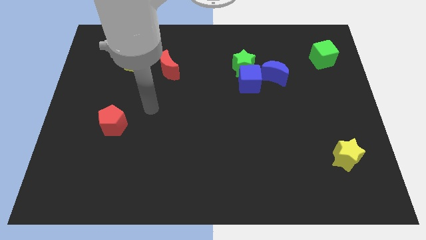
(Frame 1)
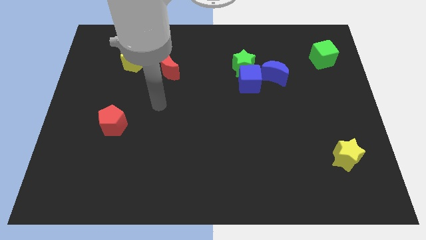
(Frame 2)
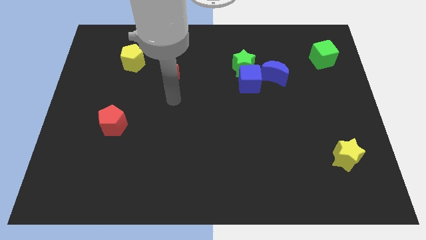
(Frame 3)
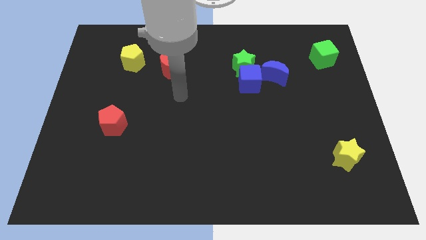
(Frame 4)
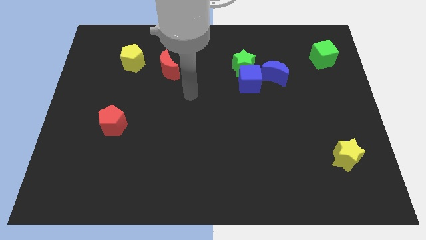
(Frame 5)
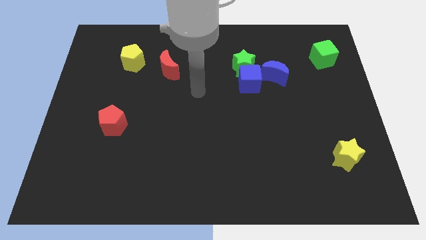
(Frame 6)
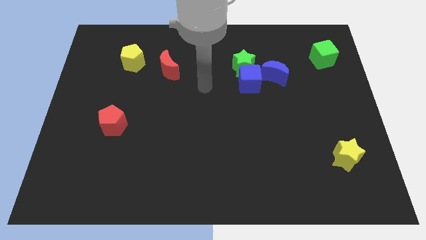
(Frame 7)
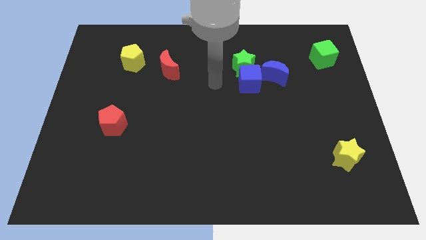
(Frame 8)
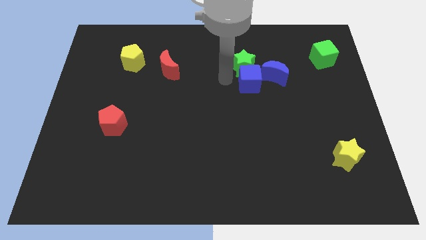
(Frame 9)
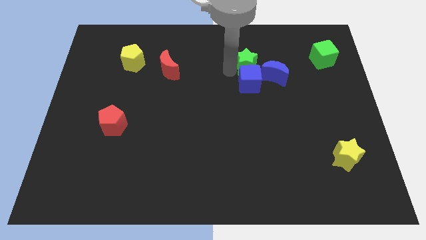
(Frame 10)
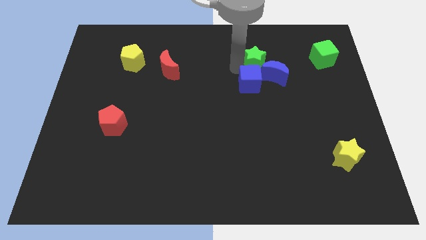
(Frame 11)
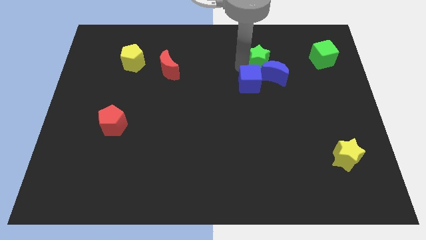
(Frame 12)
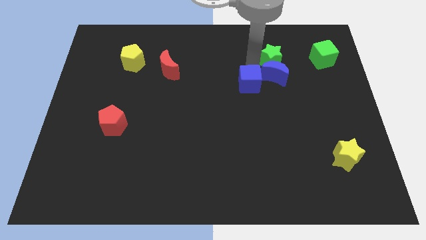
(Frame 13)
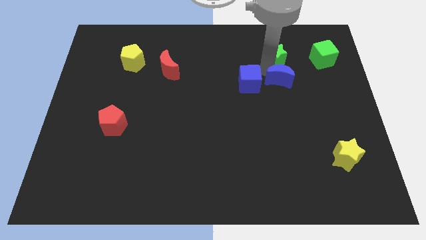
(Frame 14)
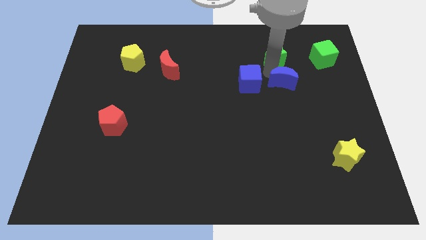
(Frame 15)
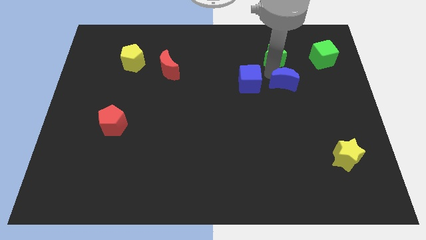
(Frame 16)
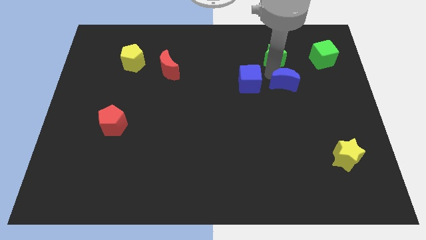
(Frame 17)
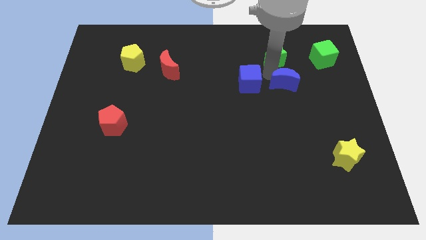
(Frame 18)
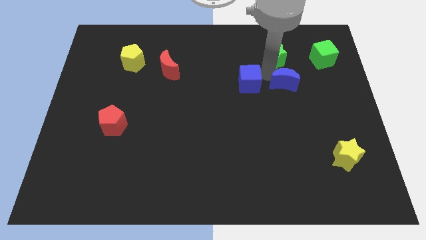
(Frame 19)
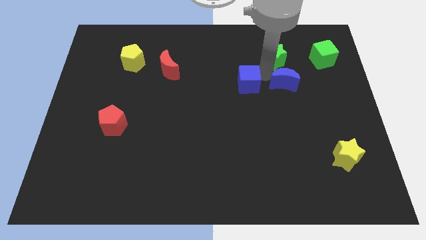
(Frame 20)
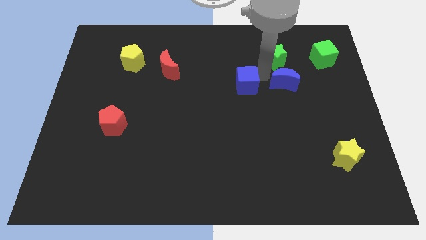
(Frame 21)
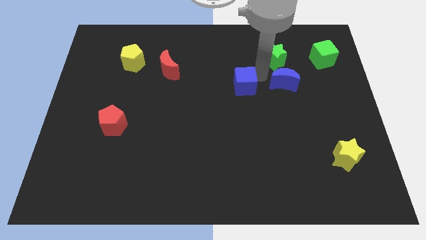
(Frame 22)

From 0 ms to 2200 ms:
separate the blue cube from the green star and blue moon

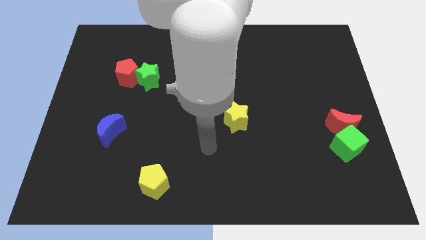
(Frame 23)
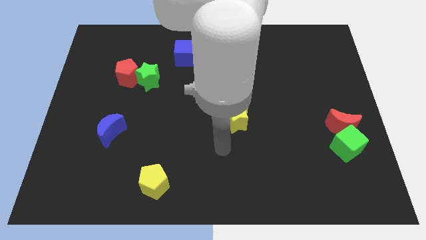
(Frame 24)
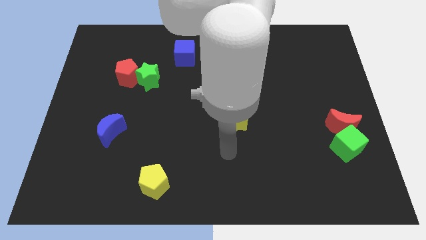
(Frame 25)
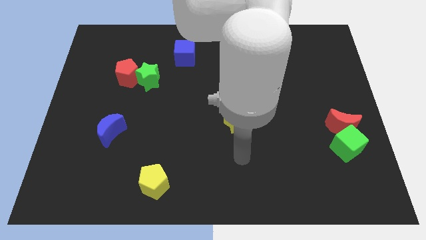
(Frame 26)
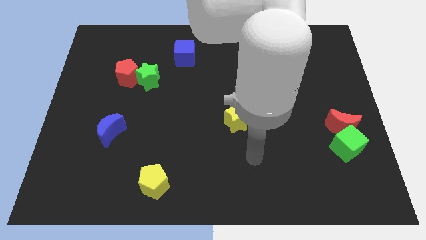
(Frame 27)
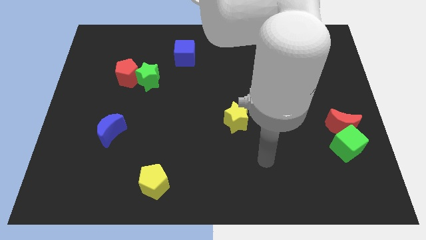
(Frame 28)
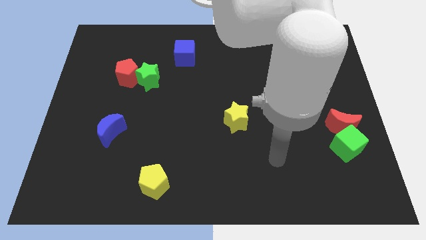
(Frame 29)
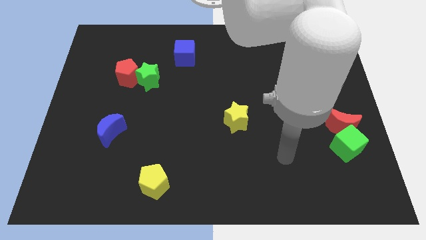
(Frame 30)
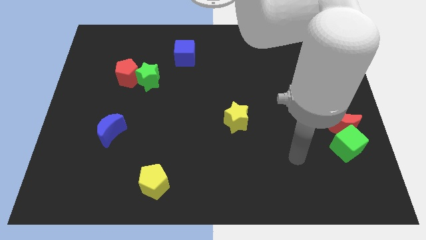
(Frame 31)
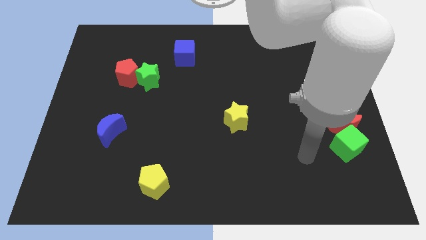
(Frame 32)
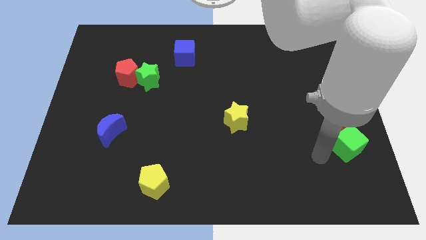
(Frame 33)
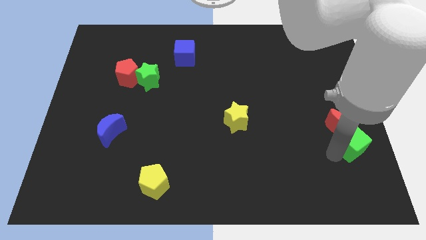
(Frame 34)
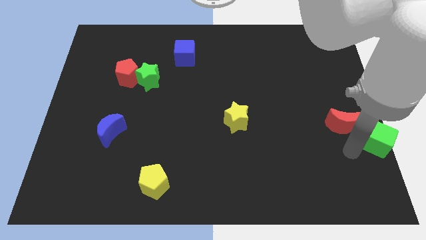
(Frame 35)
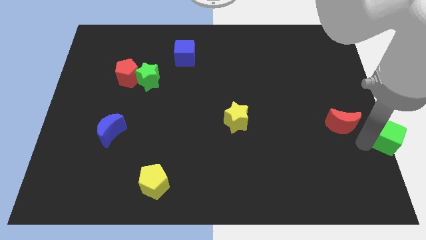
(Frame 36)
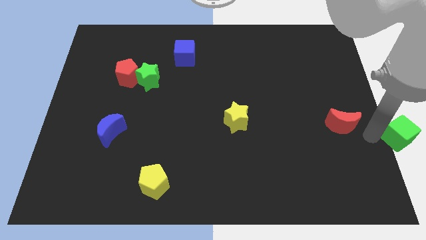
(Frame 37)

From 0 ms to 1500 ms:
move the red moon away from the green cube

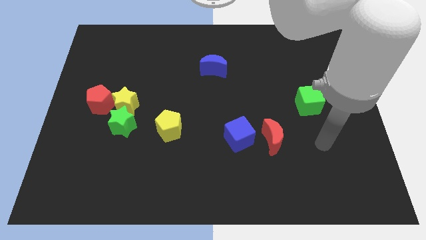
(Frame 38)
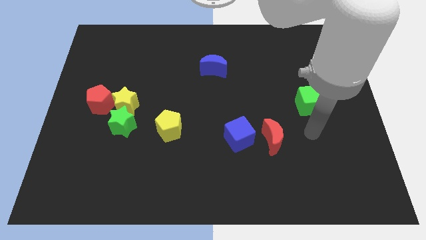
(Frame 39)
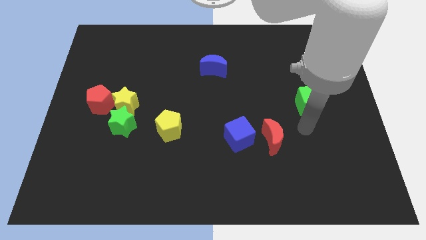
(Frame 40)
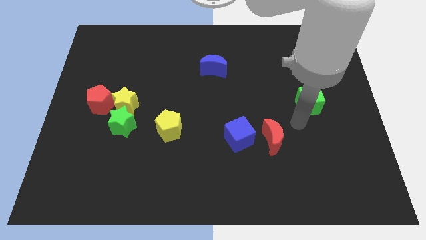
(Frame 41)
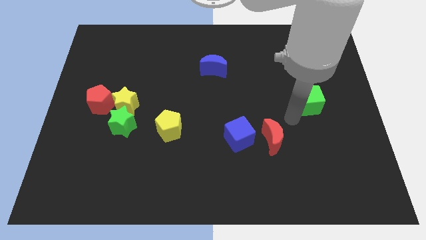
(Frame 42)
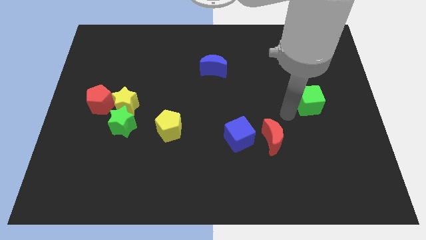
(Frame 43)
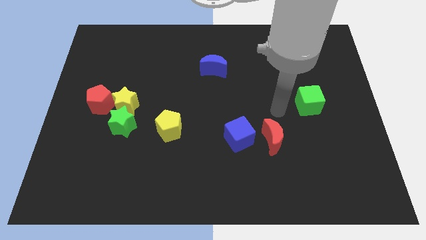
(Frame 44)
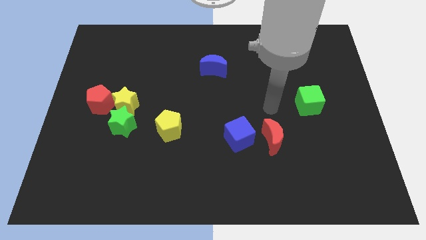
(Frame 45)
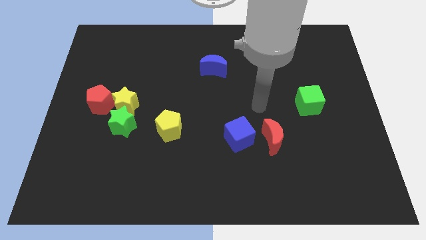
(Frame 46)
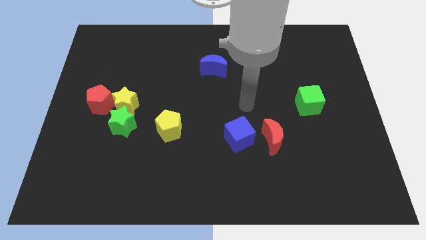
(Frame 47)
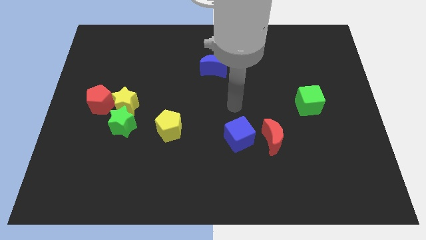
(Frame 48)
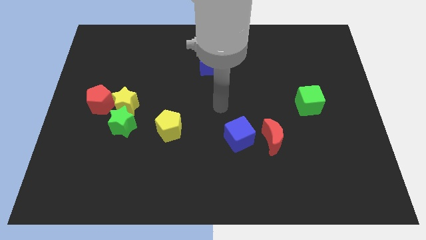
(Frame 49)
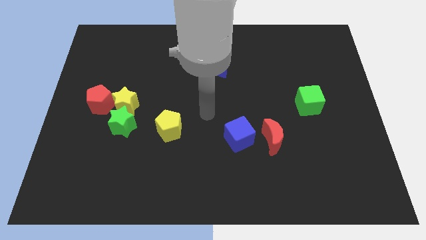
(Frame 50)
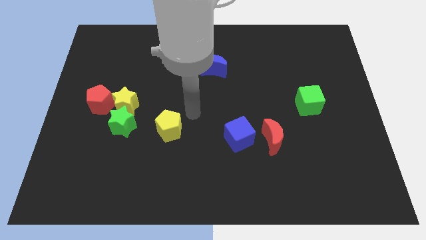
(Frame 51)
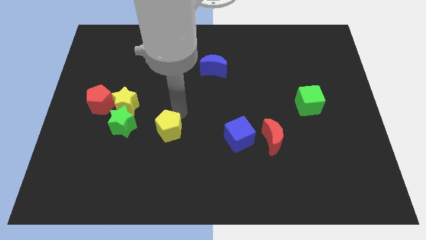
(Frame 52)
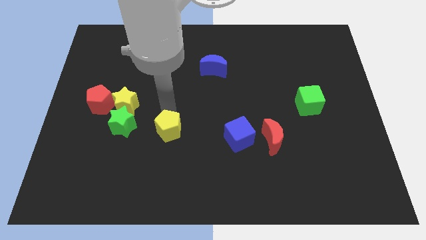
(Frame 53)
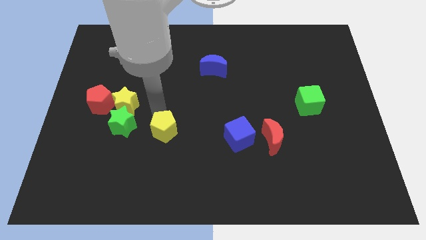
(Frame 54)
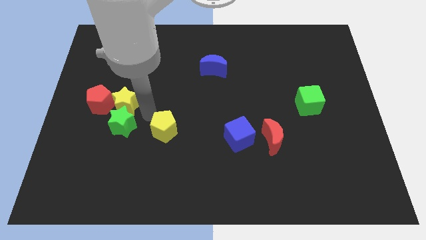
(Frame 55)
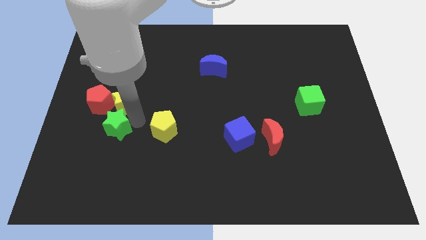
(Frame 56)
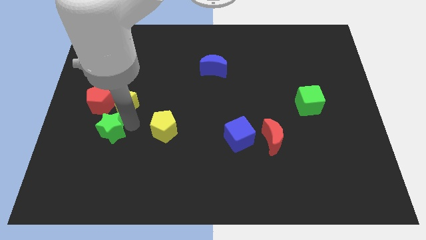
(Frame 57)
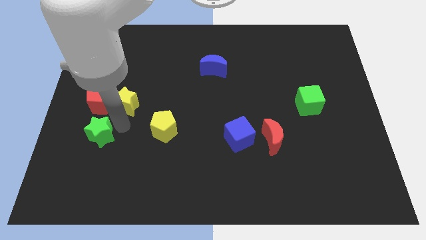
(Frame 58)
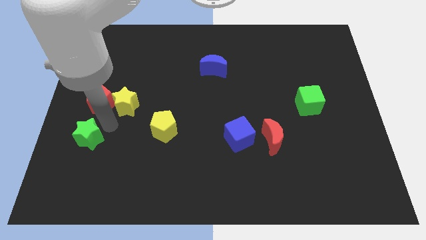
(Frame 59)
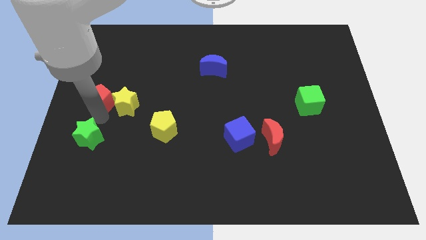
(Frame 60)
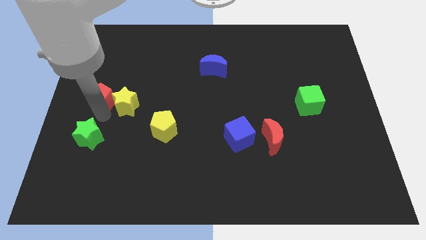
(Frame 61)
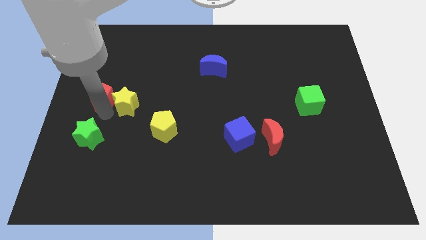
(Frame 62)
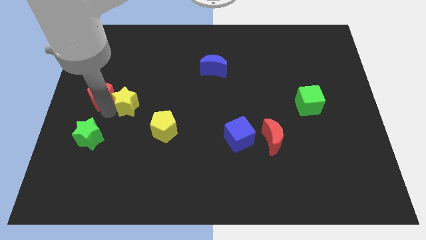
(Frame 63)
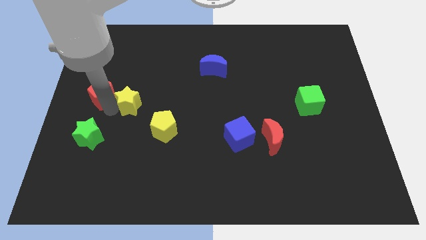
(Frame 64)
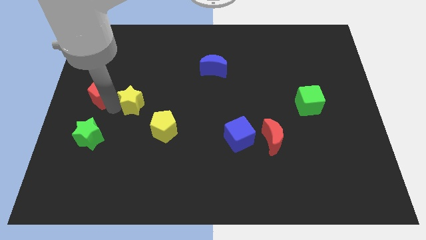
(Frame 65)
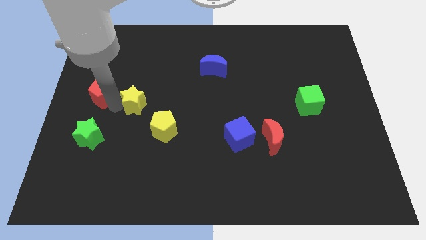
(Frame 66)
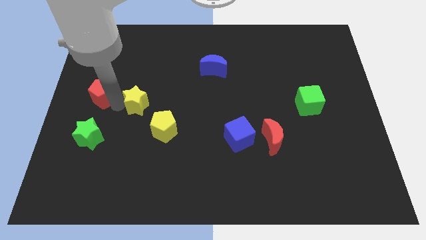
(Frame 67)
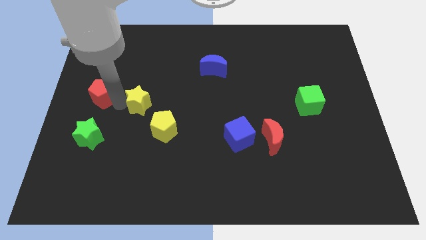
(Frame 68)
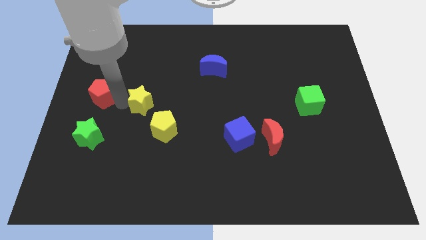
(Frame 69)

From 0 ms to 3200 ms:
move the yellow star away from the green star and red pentagon

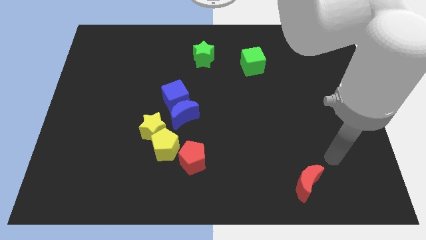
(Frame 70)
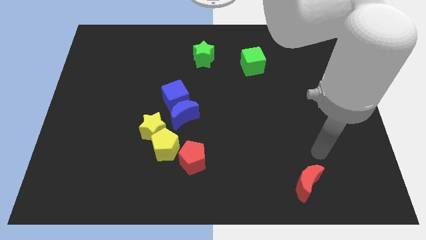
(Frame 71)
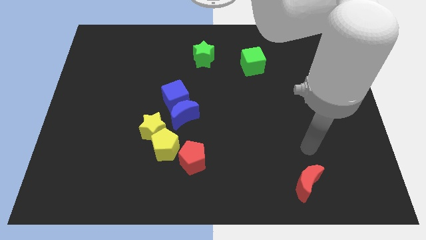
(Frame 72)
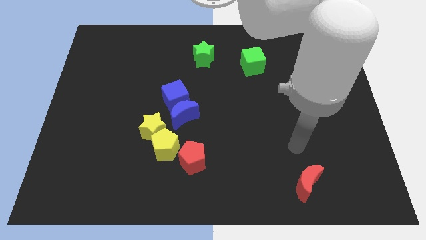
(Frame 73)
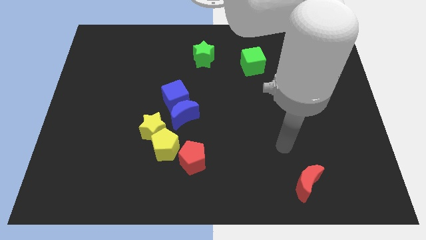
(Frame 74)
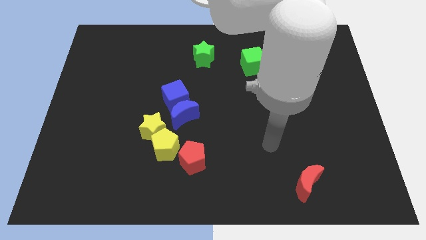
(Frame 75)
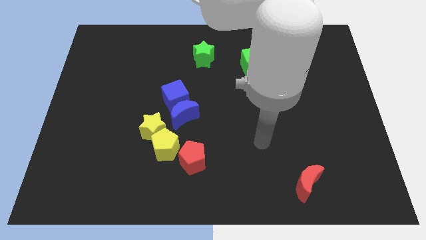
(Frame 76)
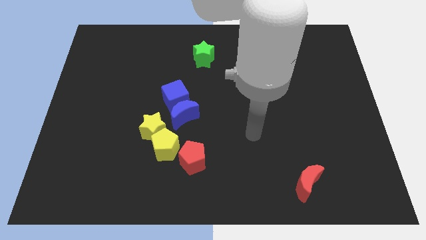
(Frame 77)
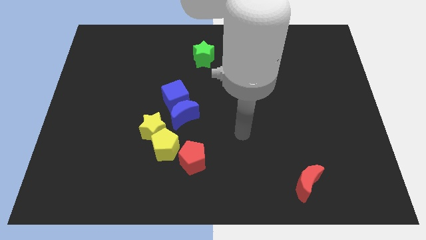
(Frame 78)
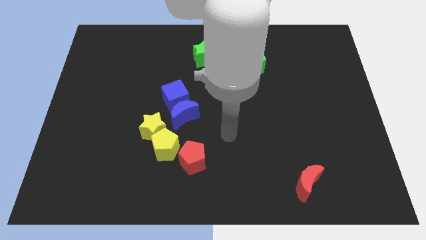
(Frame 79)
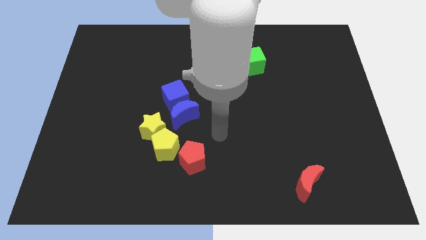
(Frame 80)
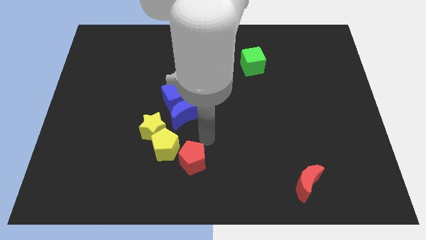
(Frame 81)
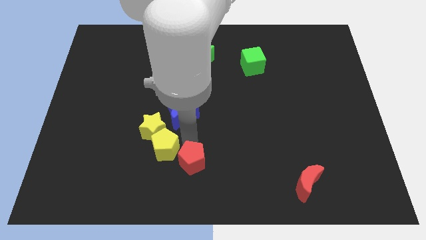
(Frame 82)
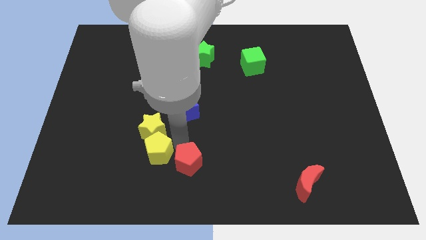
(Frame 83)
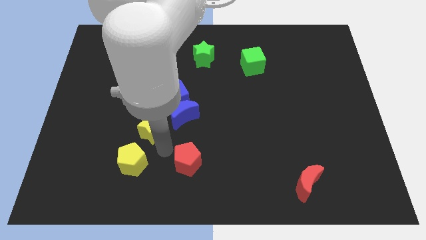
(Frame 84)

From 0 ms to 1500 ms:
move the red pentagon away from the yellow pentagon

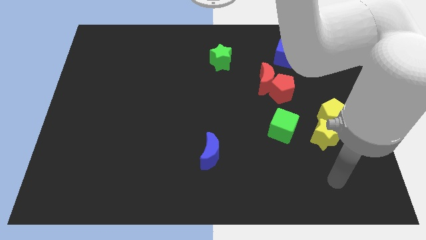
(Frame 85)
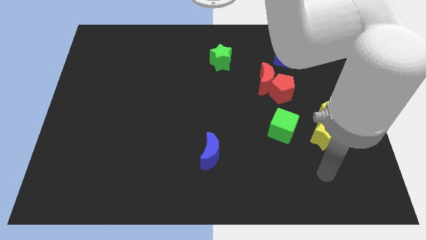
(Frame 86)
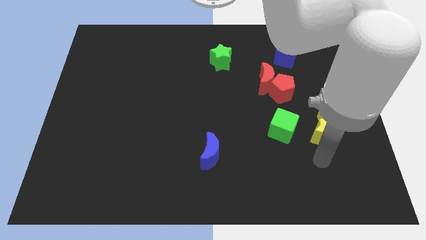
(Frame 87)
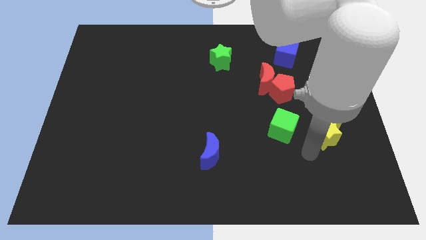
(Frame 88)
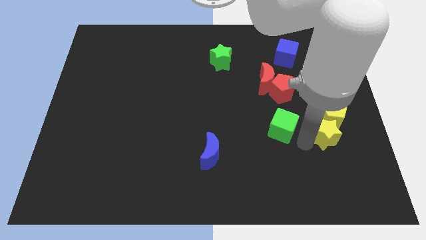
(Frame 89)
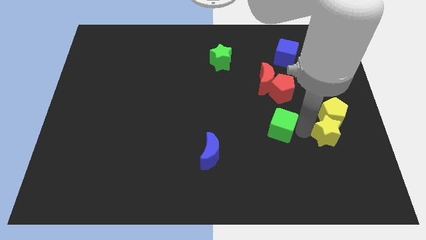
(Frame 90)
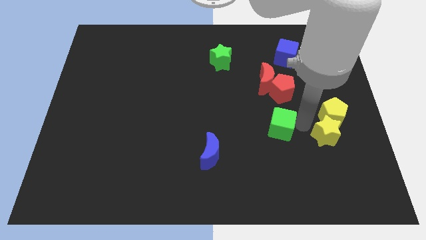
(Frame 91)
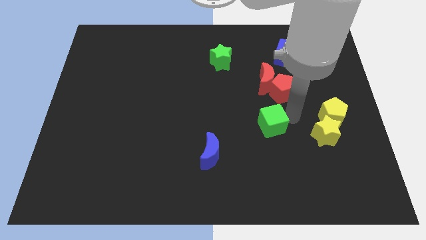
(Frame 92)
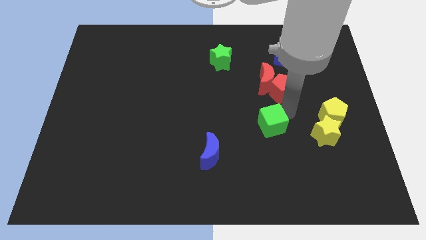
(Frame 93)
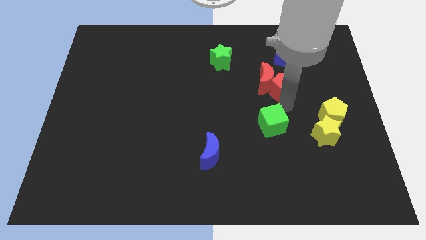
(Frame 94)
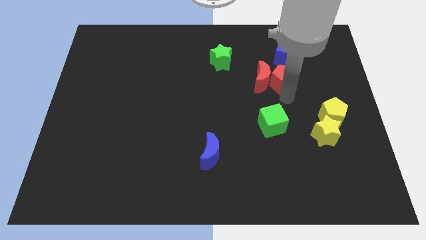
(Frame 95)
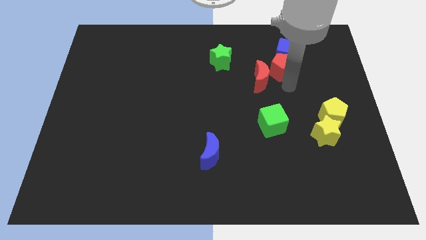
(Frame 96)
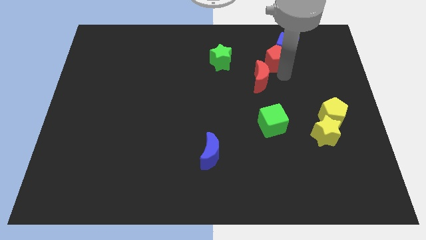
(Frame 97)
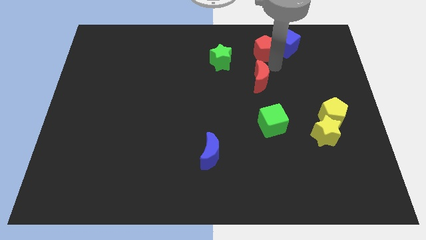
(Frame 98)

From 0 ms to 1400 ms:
move the red moon away from the red pentagon
